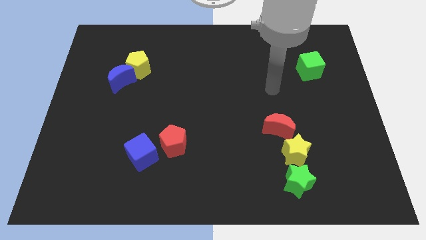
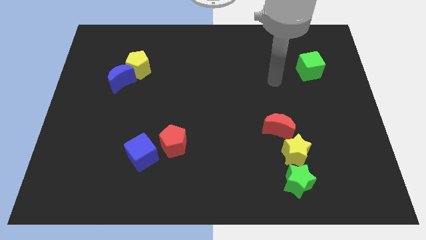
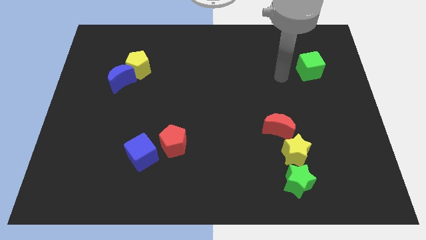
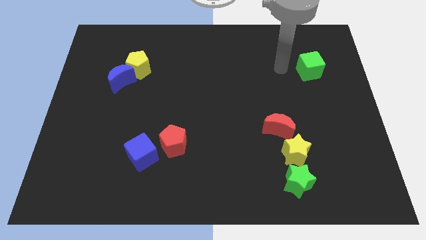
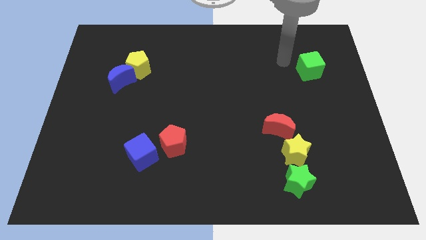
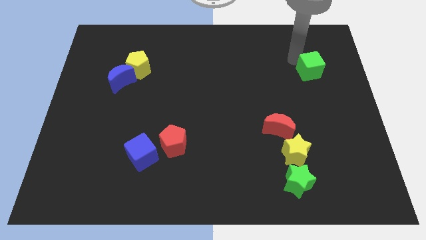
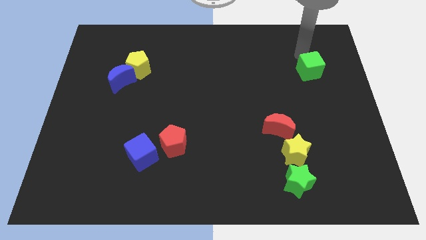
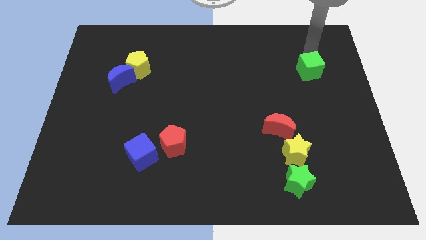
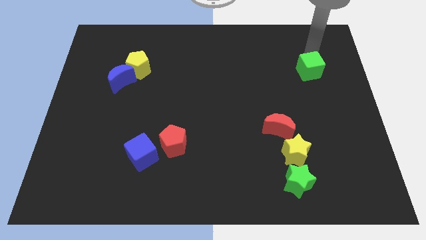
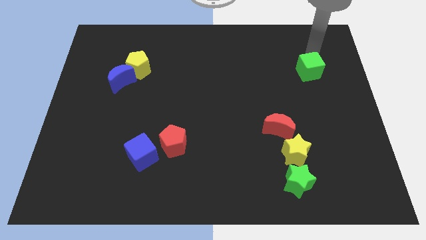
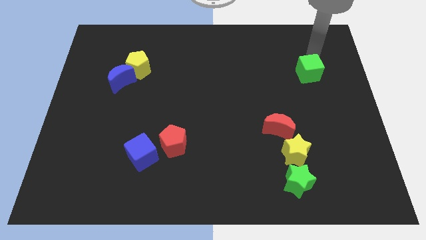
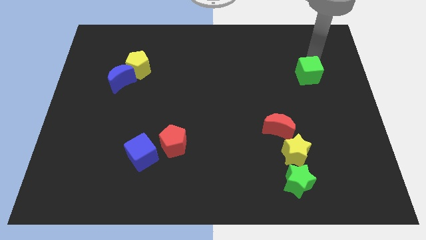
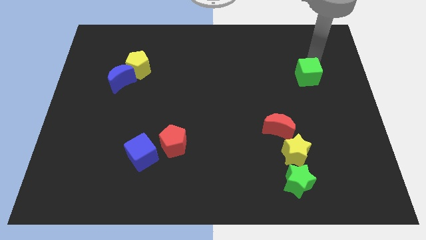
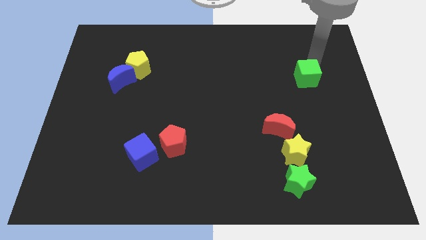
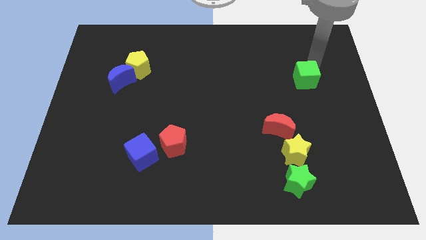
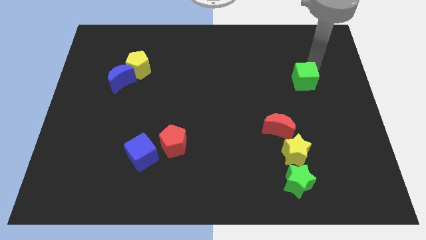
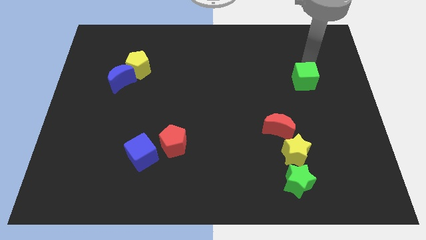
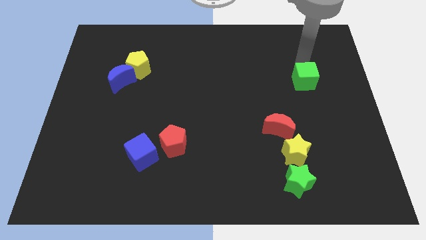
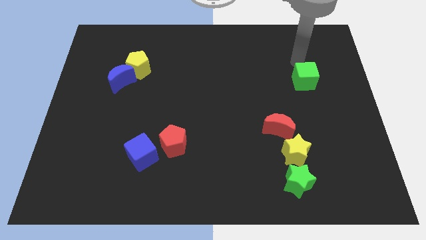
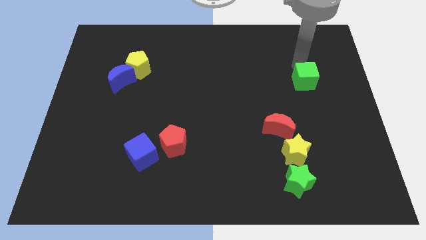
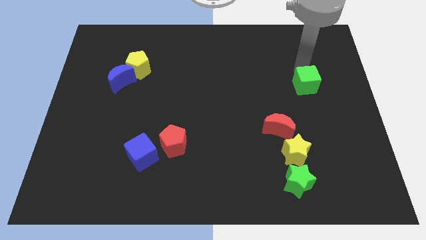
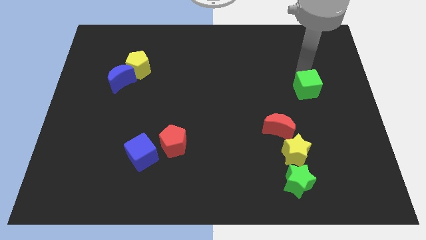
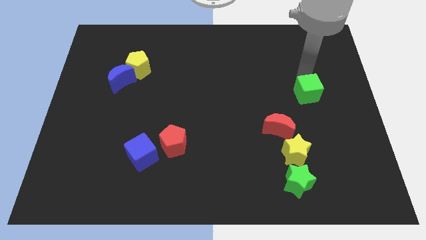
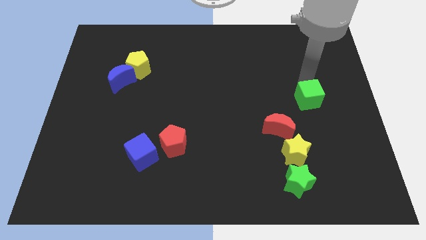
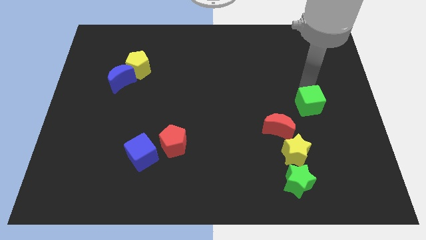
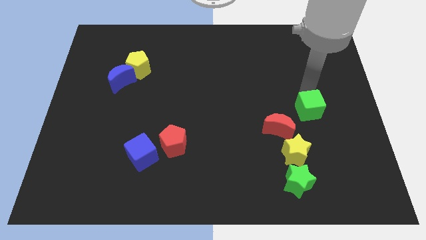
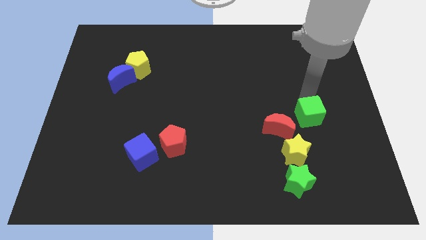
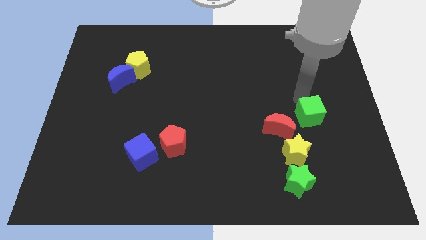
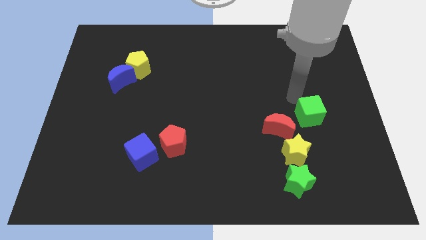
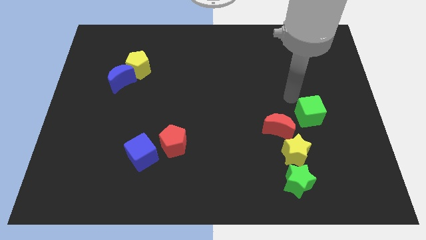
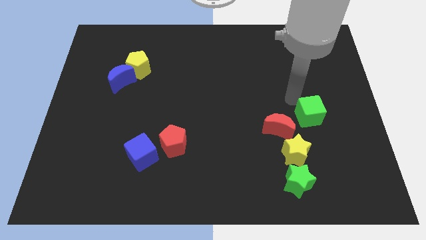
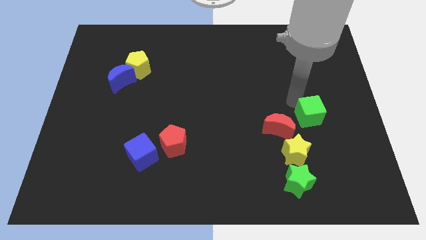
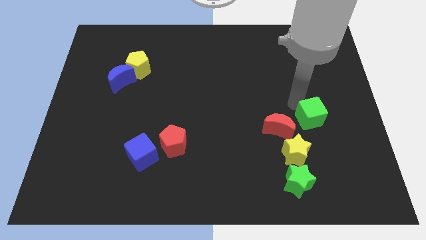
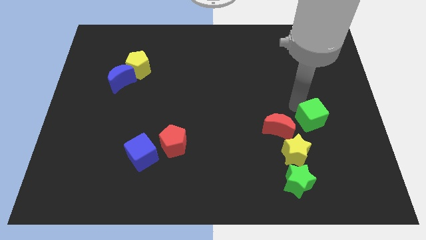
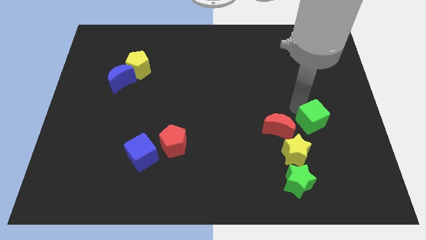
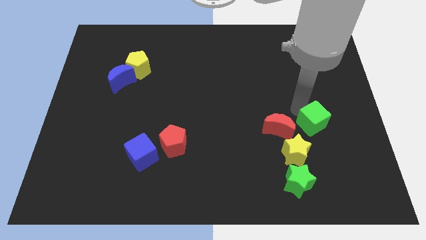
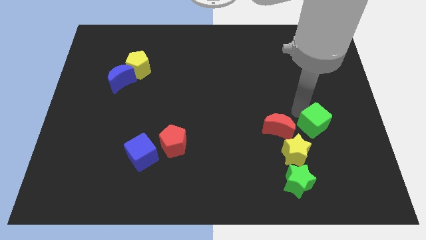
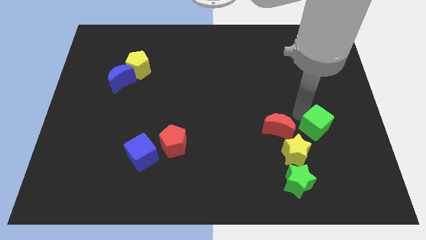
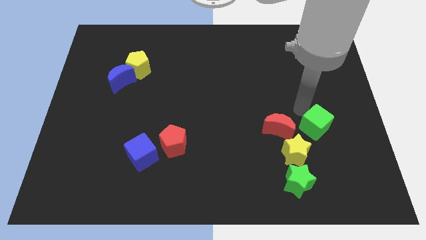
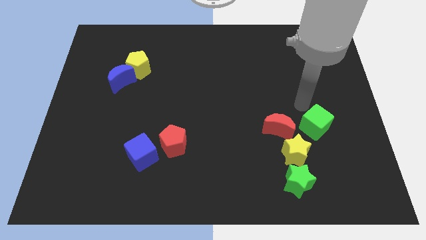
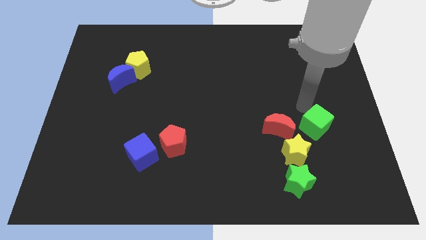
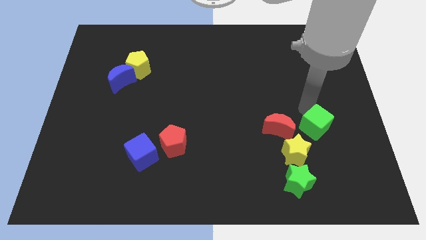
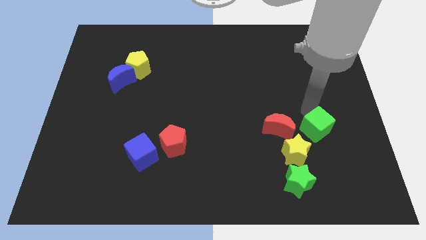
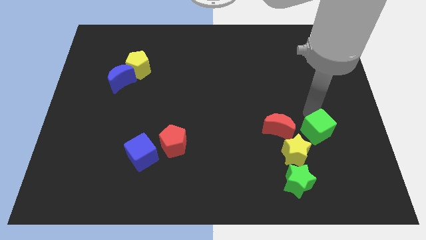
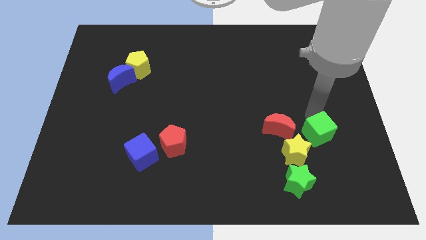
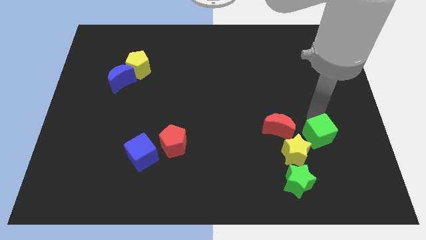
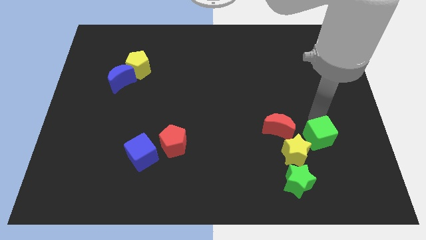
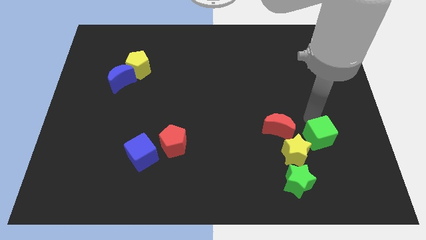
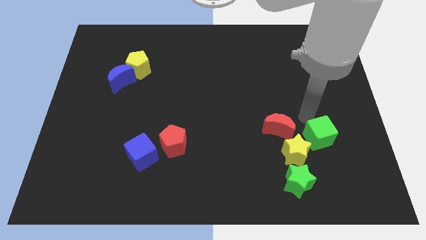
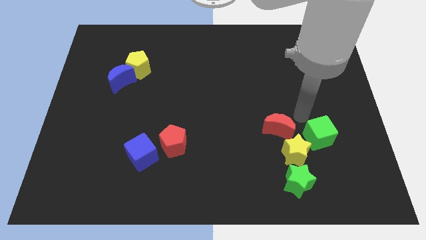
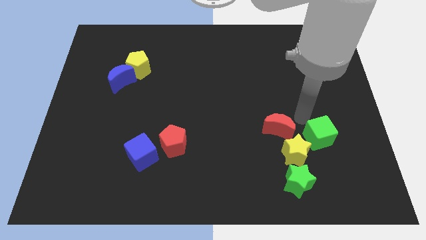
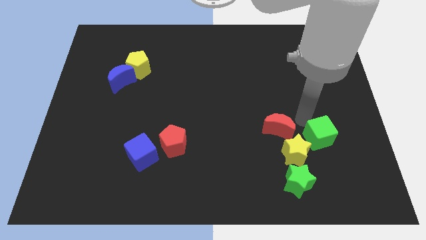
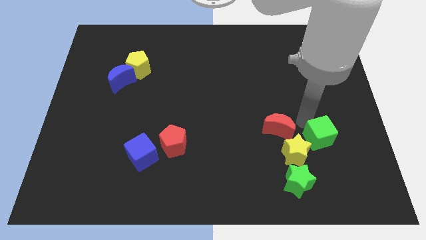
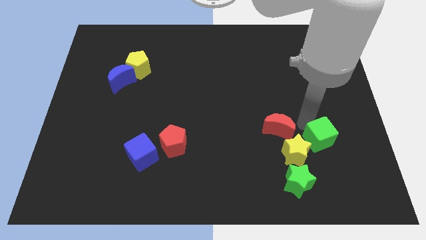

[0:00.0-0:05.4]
move the green cube to the top right side of the green star

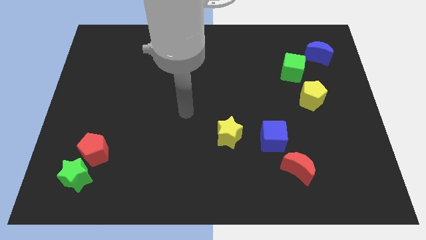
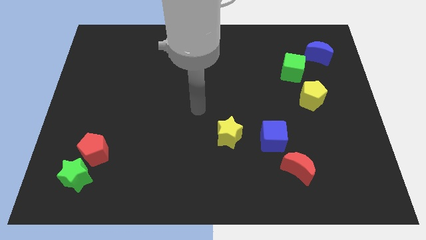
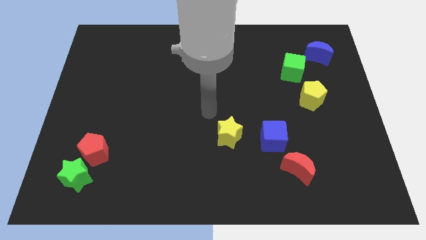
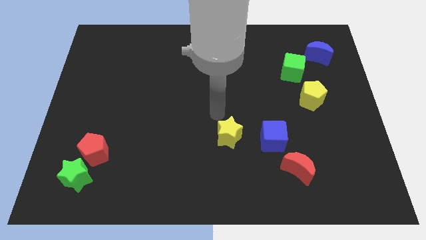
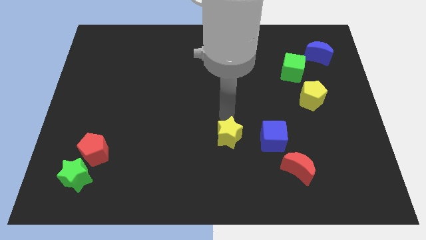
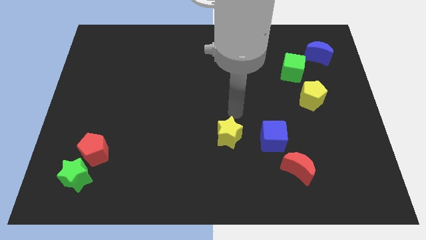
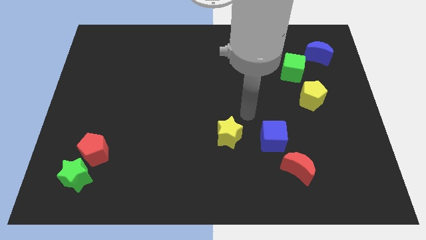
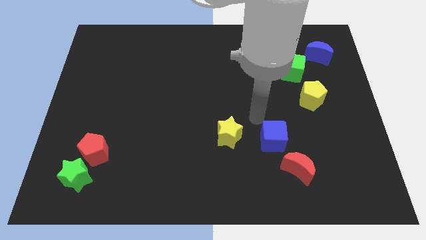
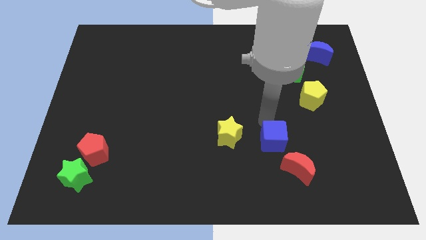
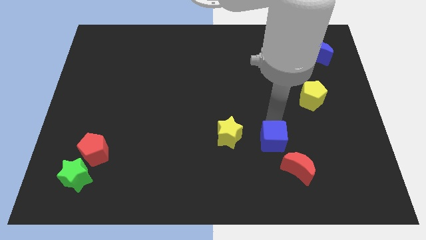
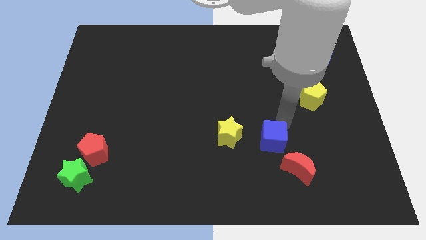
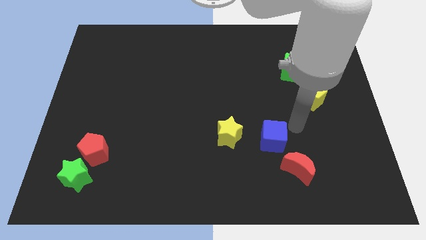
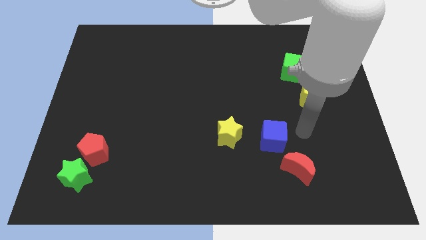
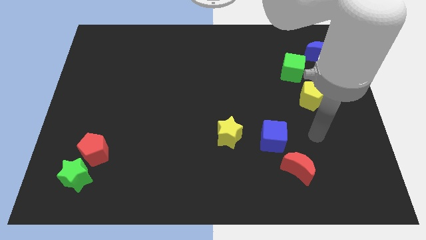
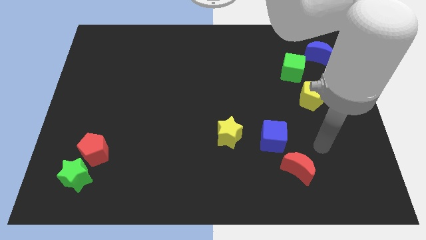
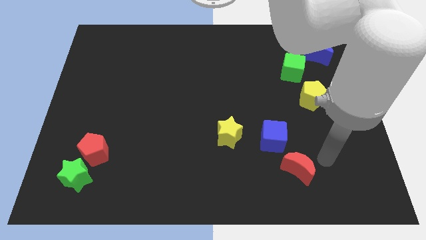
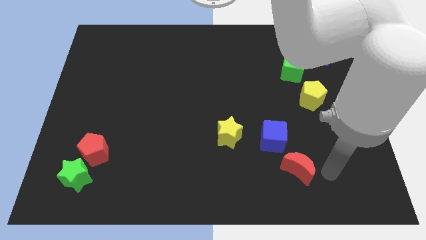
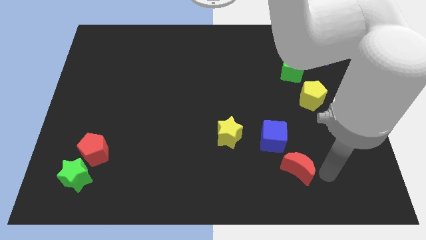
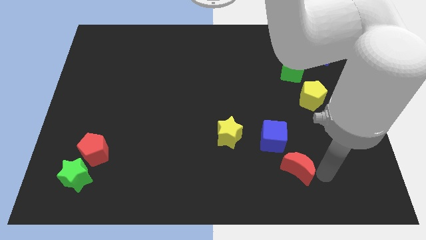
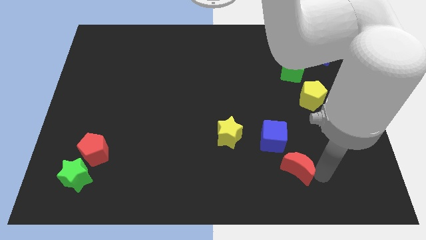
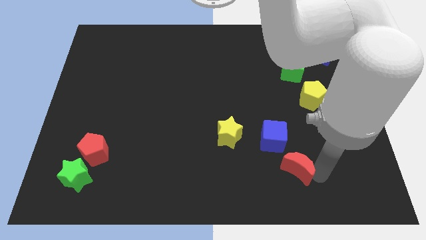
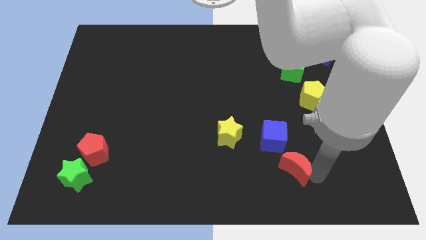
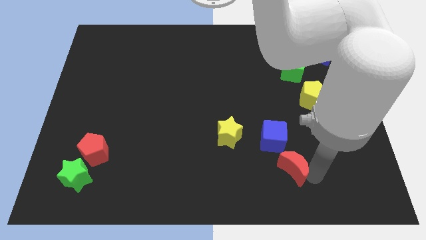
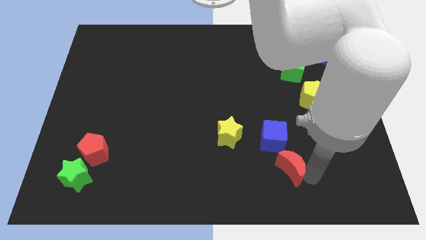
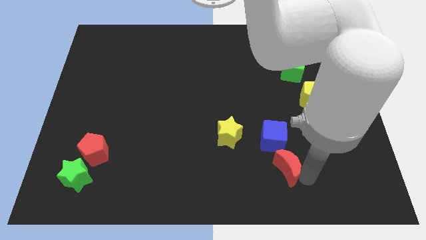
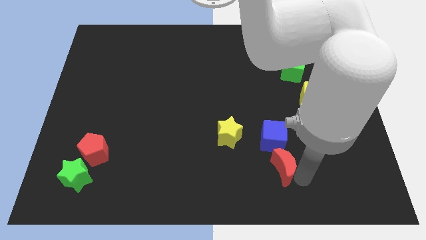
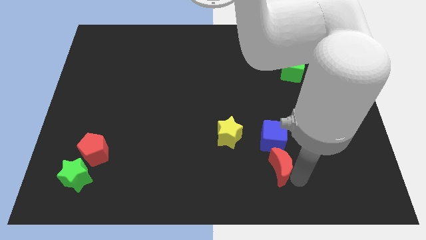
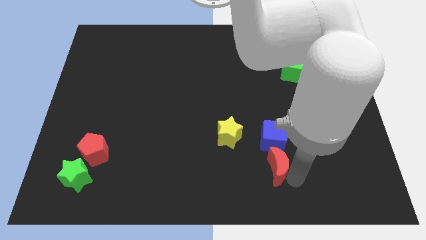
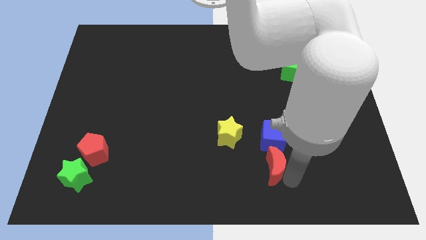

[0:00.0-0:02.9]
put the red moon diagonally down and to the left of the blue cube
